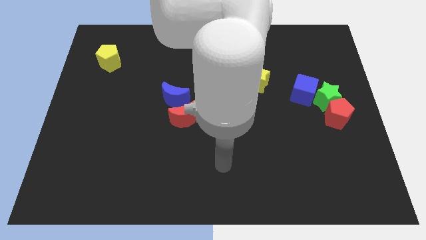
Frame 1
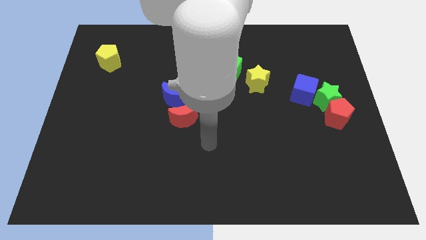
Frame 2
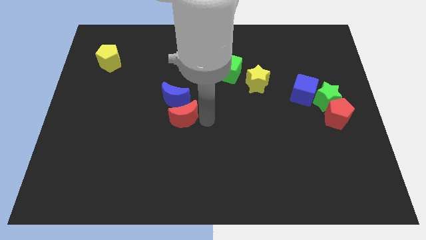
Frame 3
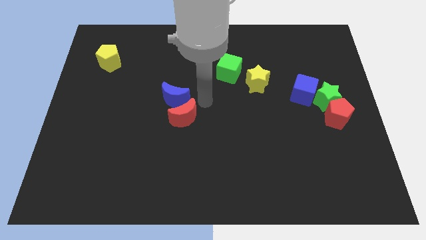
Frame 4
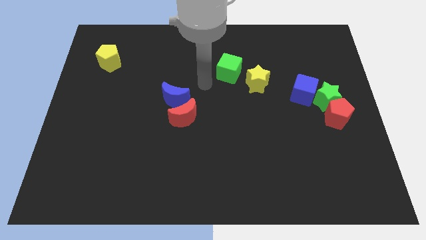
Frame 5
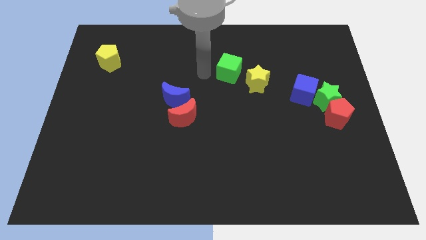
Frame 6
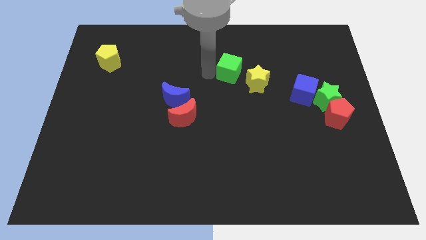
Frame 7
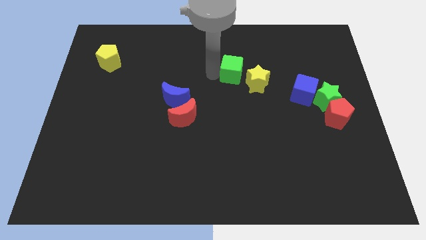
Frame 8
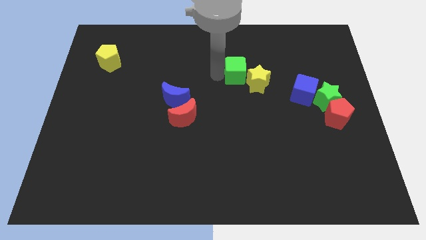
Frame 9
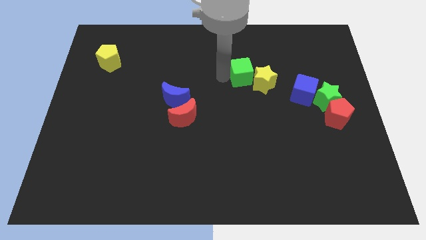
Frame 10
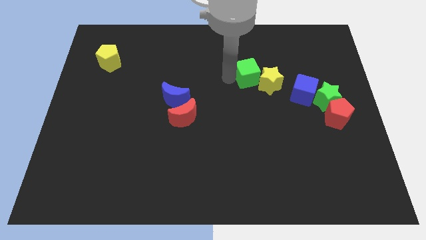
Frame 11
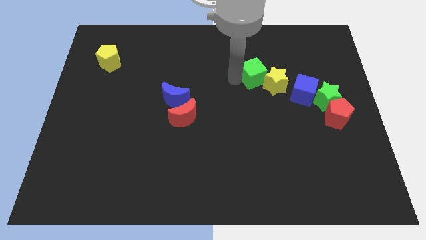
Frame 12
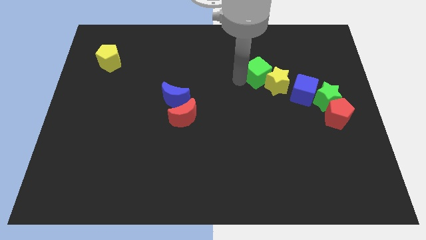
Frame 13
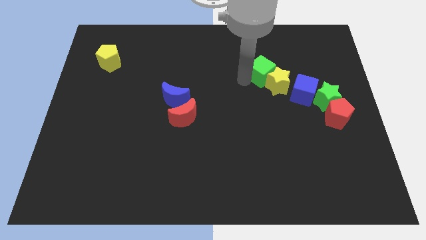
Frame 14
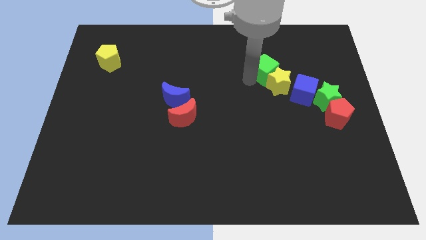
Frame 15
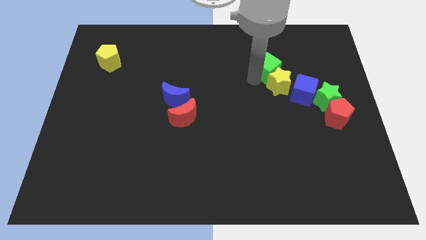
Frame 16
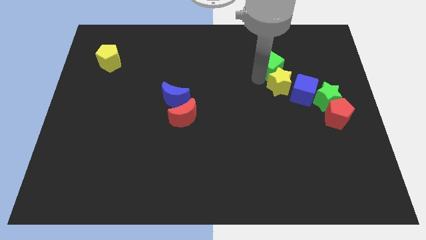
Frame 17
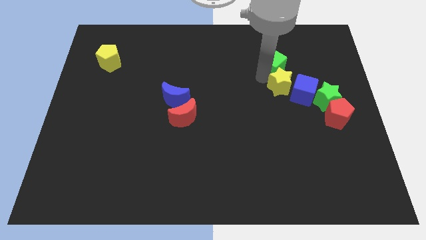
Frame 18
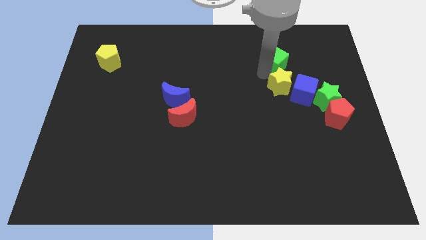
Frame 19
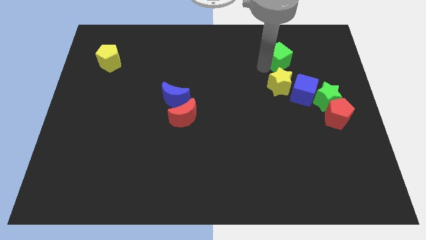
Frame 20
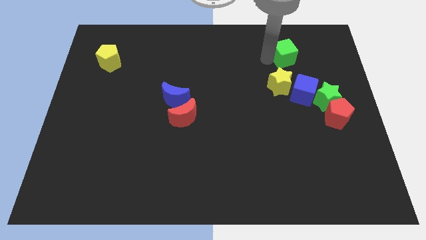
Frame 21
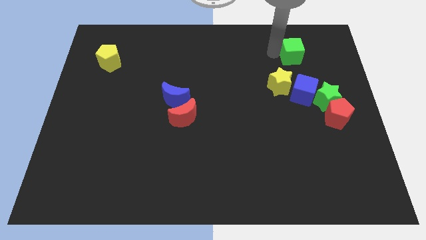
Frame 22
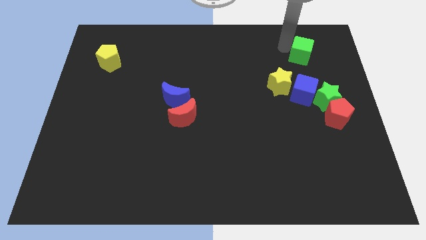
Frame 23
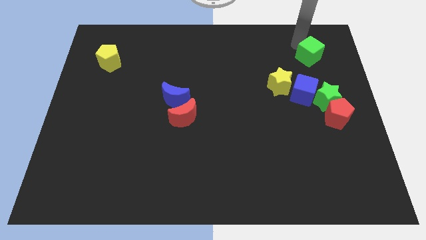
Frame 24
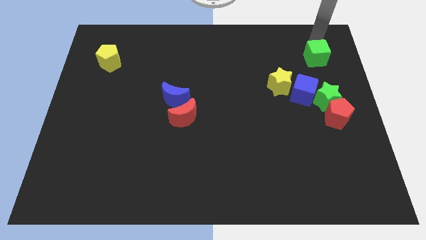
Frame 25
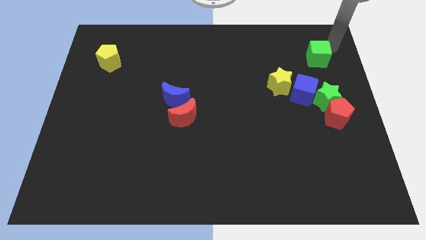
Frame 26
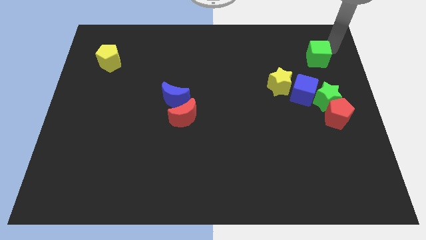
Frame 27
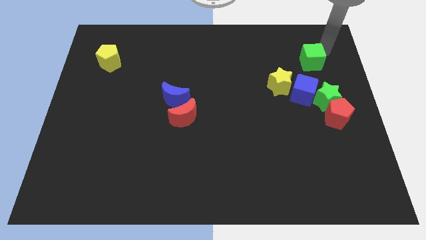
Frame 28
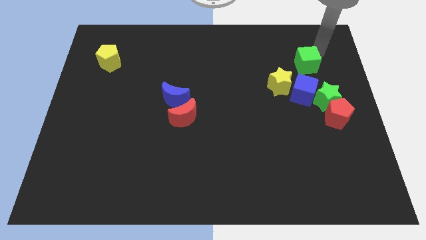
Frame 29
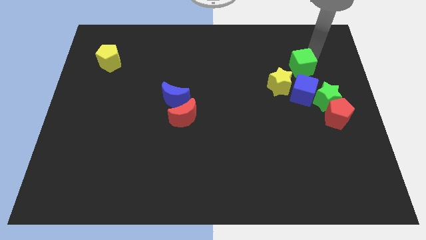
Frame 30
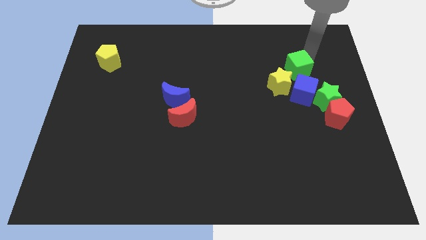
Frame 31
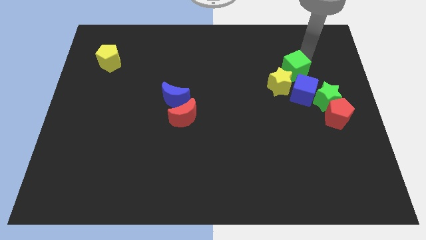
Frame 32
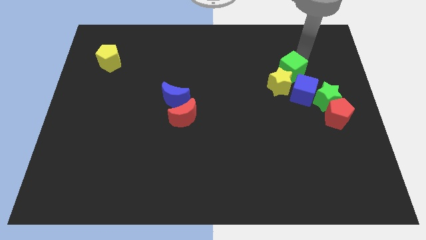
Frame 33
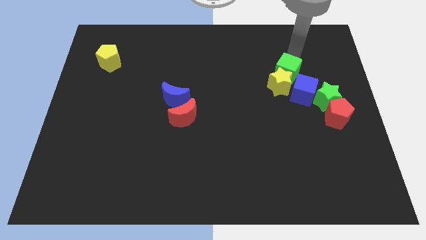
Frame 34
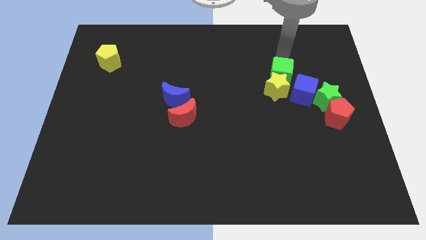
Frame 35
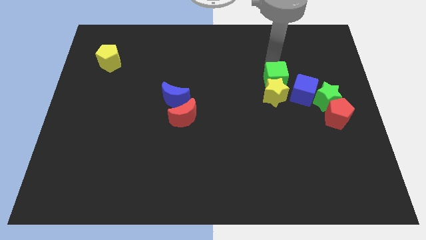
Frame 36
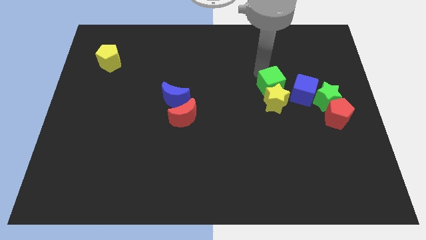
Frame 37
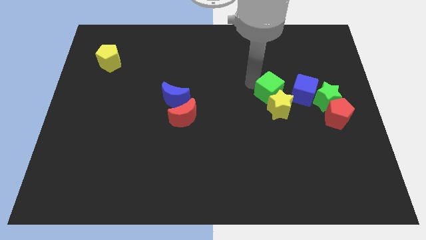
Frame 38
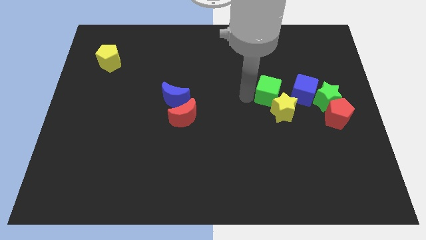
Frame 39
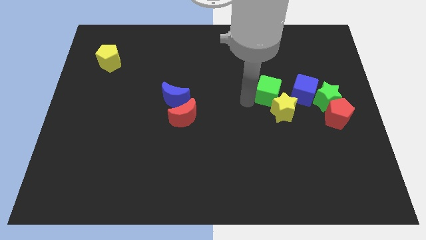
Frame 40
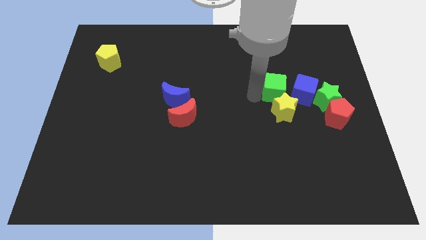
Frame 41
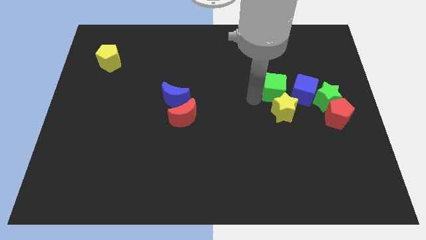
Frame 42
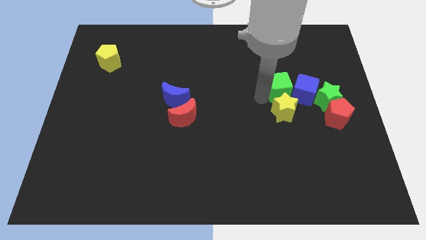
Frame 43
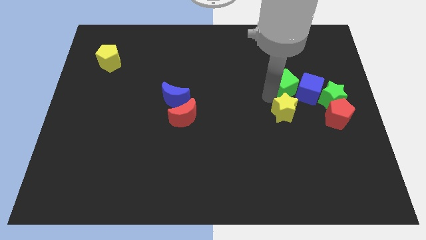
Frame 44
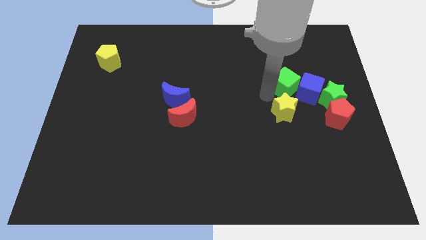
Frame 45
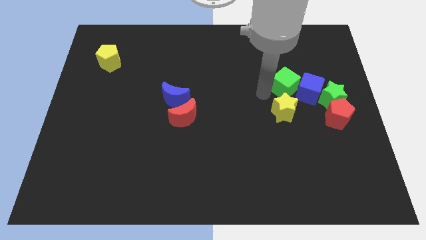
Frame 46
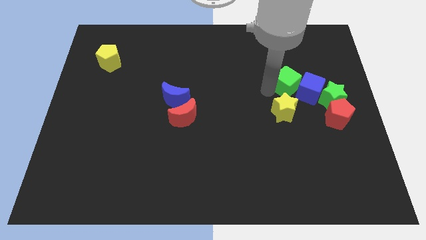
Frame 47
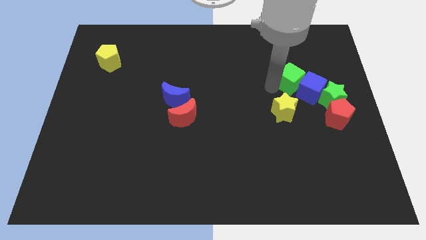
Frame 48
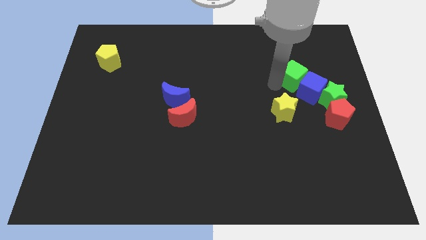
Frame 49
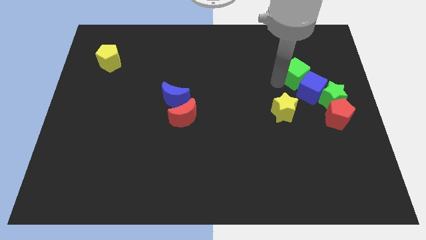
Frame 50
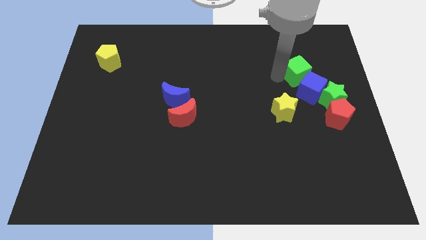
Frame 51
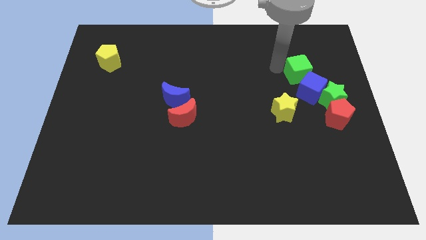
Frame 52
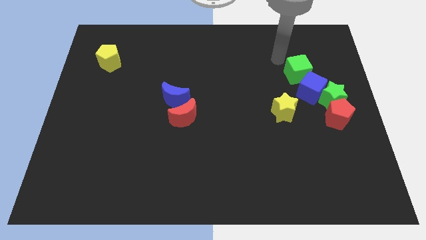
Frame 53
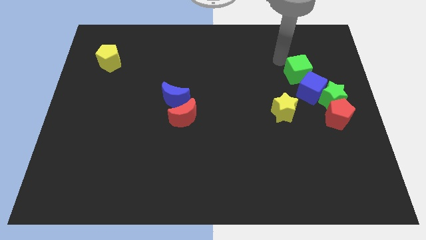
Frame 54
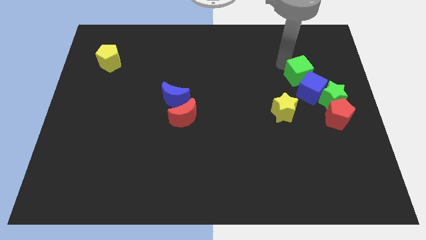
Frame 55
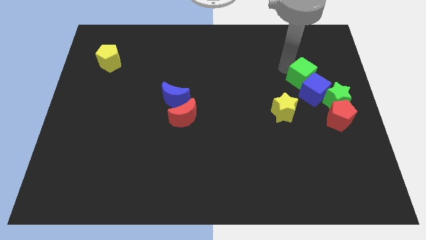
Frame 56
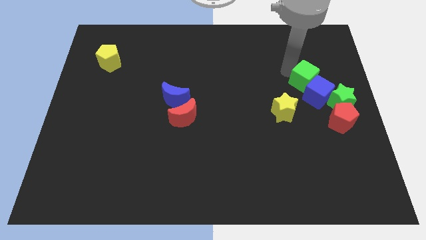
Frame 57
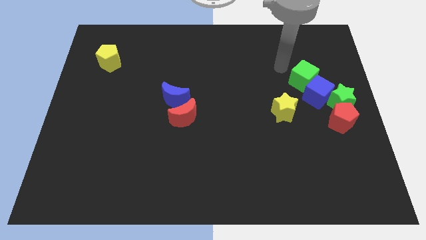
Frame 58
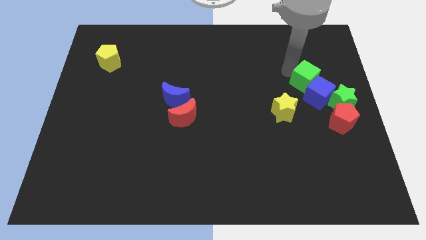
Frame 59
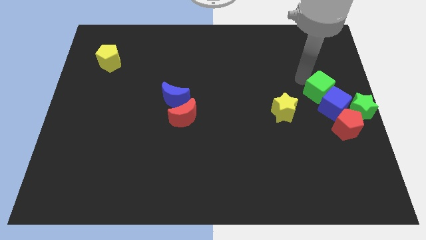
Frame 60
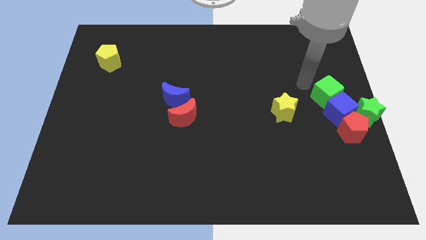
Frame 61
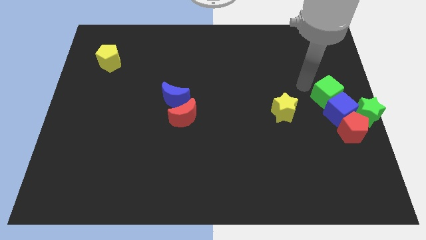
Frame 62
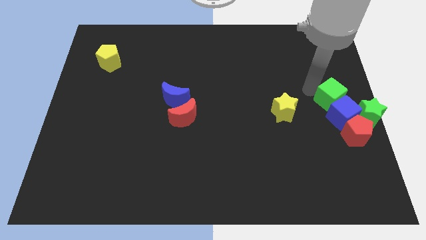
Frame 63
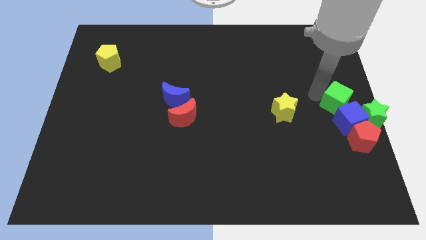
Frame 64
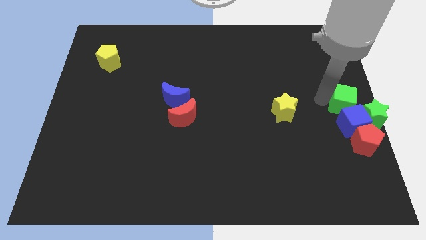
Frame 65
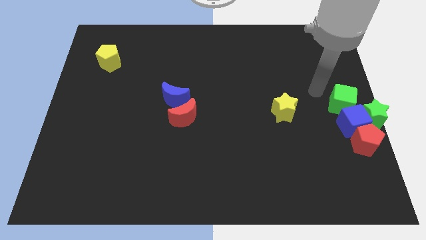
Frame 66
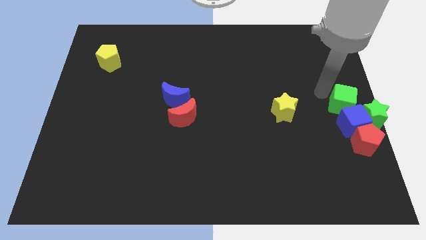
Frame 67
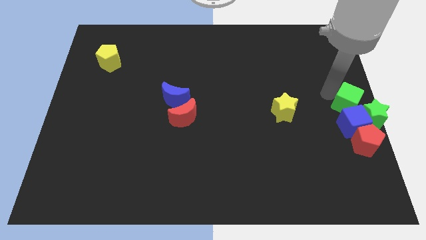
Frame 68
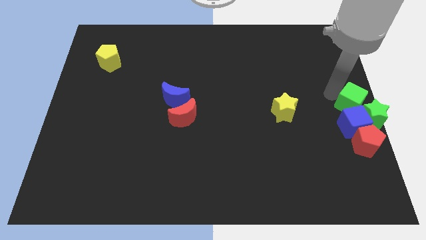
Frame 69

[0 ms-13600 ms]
slide the green cube close to the green star

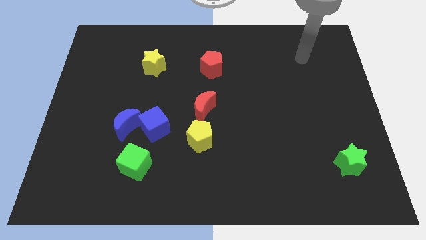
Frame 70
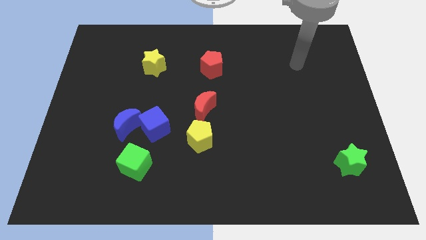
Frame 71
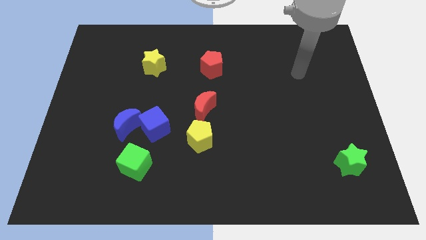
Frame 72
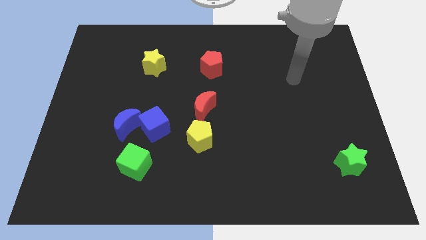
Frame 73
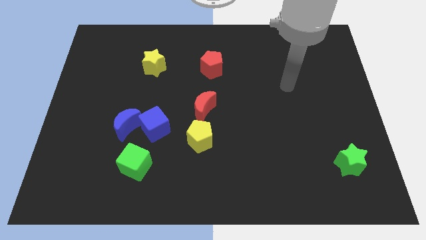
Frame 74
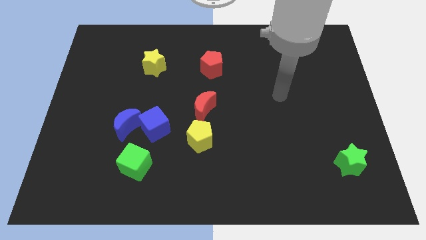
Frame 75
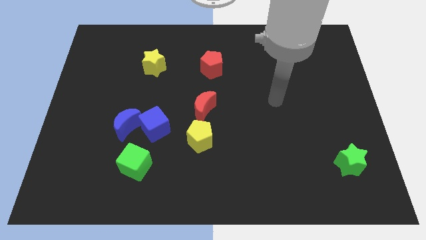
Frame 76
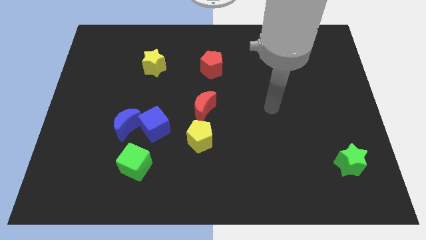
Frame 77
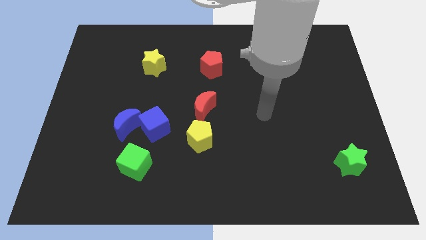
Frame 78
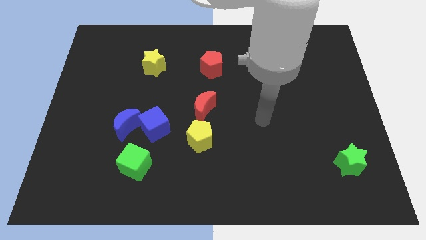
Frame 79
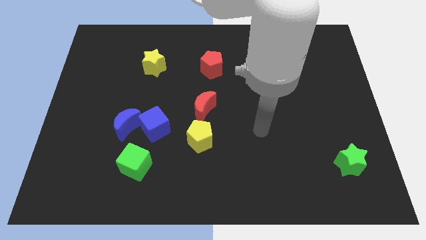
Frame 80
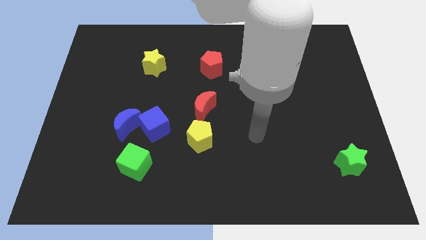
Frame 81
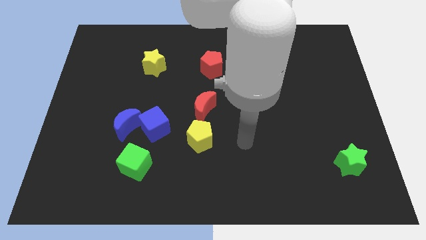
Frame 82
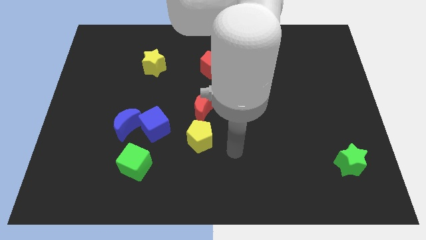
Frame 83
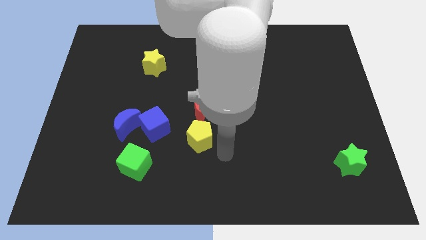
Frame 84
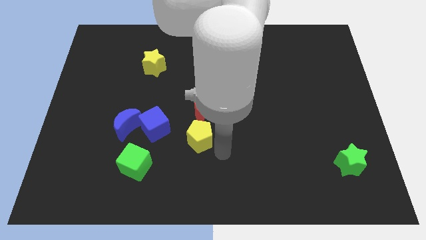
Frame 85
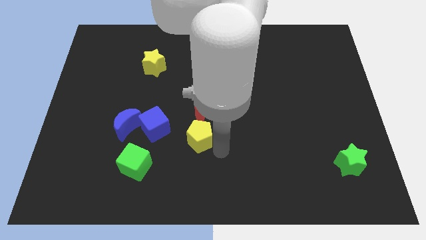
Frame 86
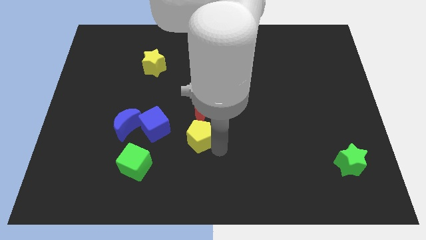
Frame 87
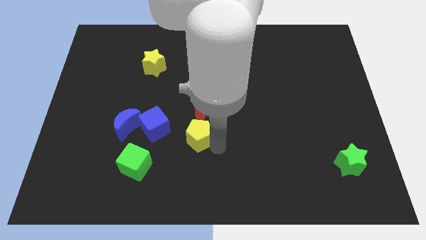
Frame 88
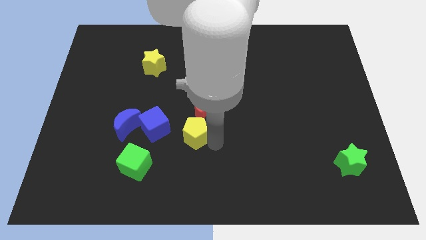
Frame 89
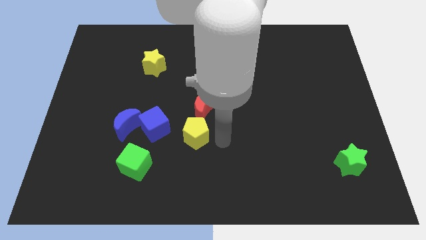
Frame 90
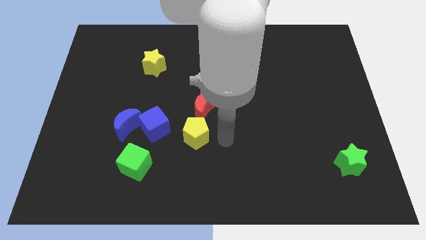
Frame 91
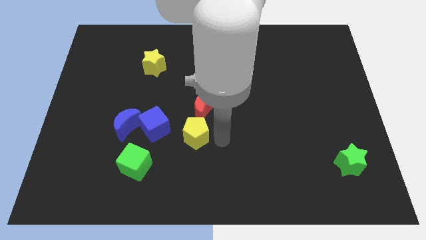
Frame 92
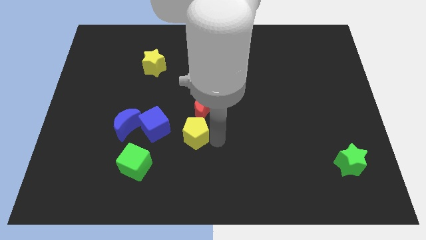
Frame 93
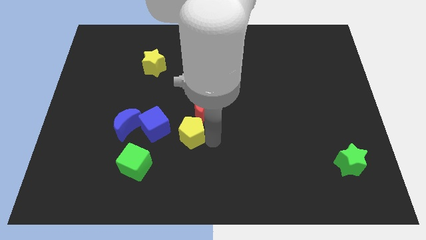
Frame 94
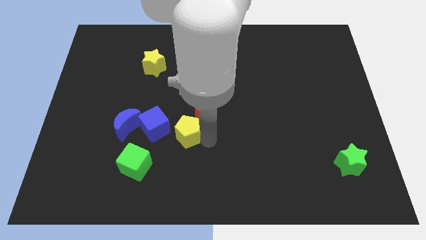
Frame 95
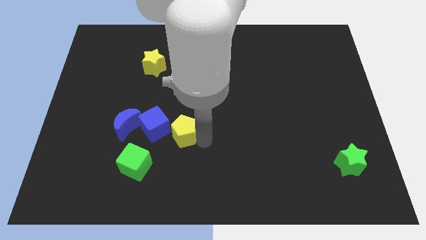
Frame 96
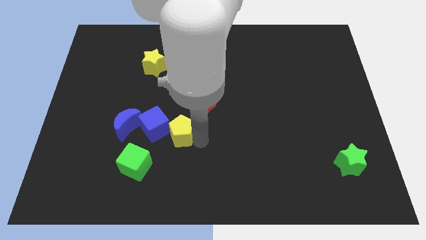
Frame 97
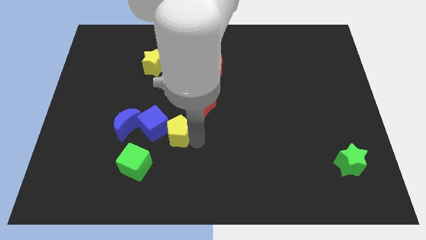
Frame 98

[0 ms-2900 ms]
put the yellow pentagon to the blue cube
